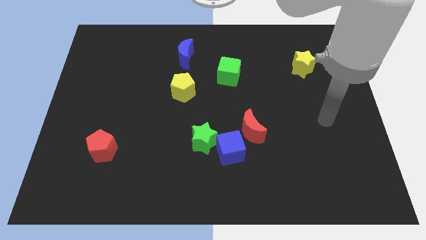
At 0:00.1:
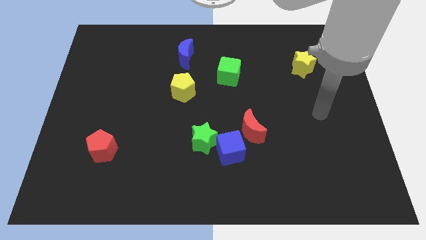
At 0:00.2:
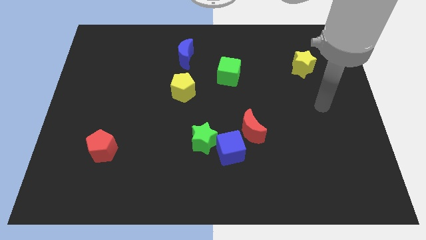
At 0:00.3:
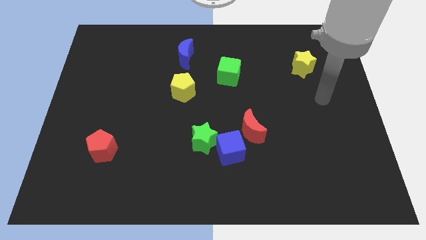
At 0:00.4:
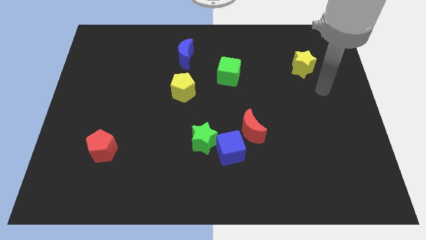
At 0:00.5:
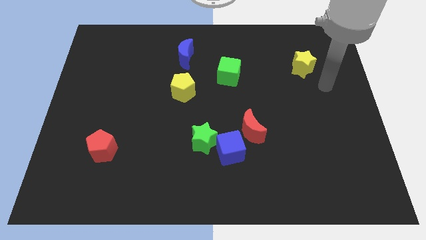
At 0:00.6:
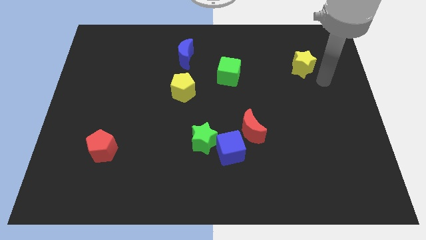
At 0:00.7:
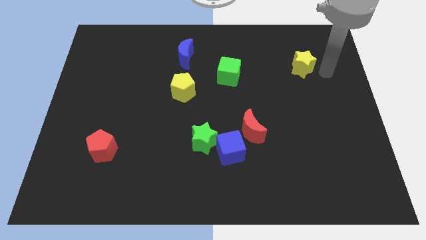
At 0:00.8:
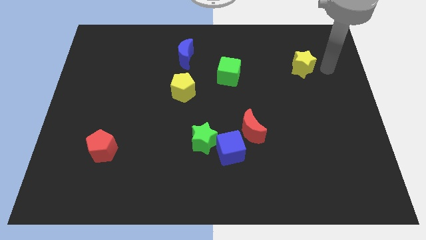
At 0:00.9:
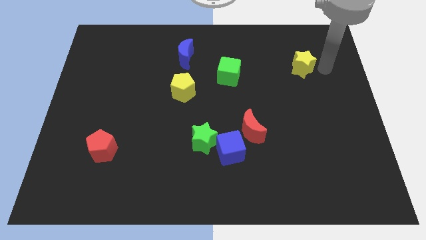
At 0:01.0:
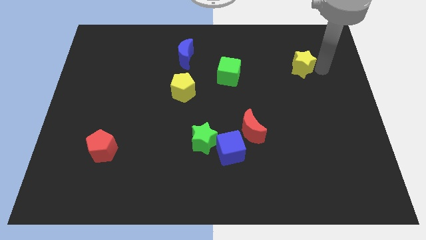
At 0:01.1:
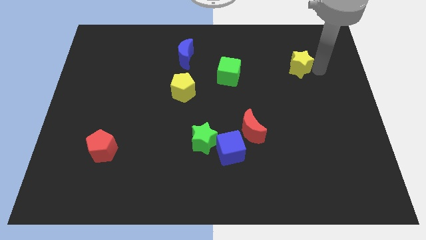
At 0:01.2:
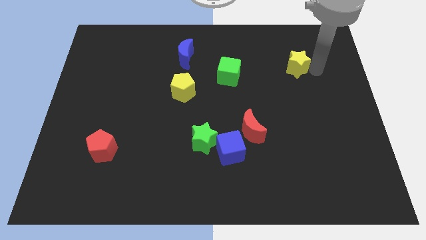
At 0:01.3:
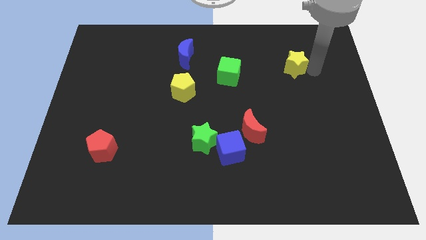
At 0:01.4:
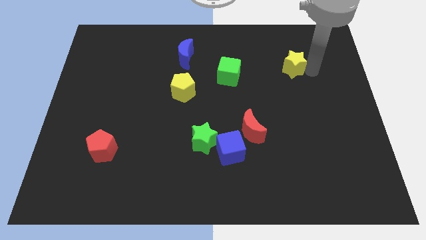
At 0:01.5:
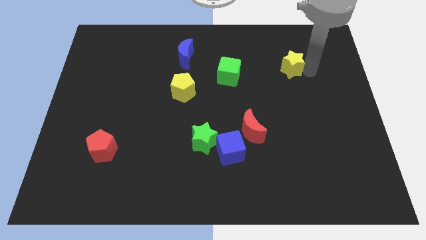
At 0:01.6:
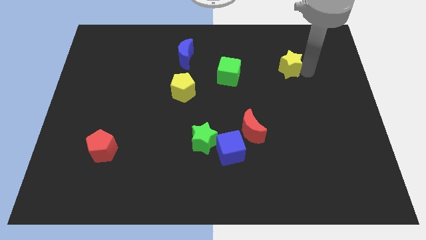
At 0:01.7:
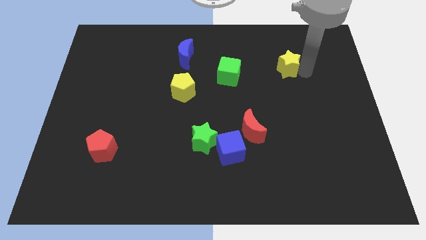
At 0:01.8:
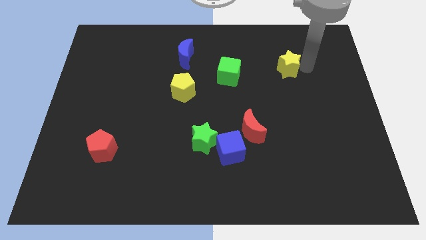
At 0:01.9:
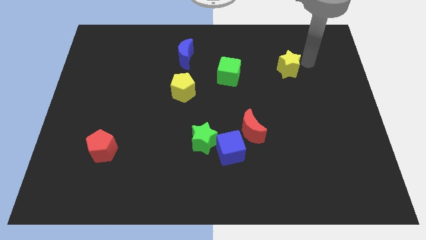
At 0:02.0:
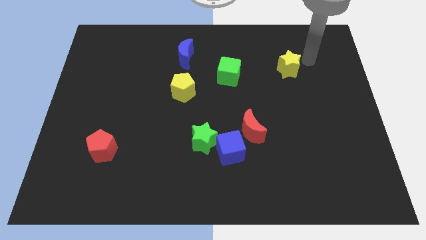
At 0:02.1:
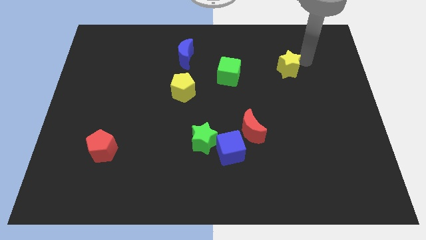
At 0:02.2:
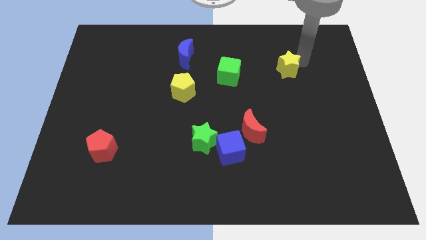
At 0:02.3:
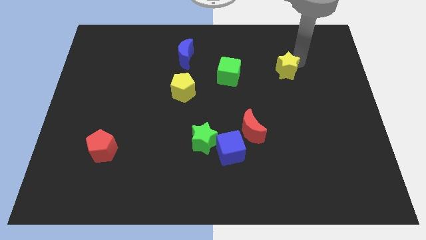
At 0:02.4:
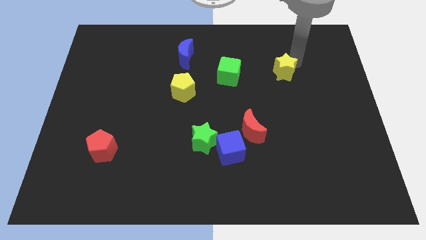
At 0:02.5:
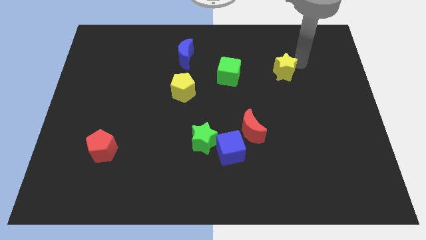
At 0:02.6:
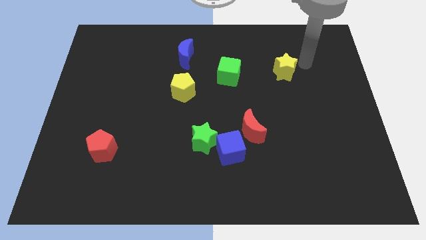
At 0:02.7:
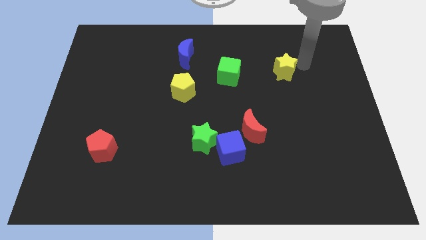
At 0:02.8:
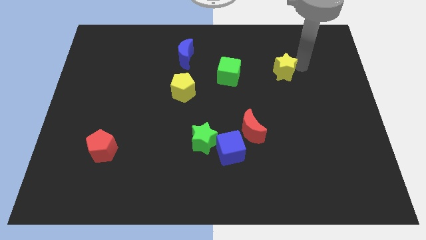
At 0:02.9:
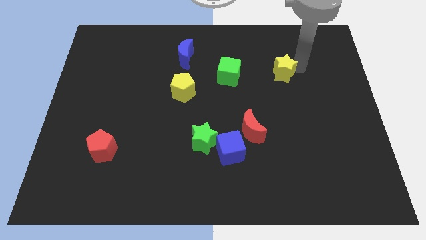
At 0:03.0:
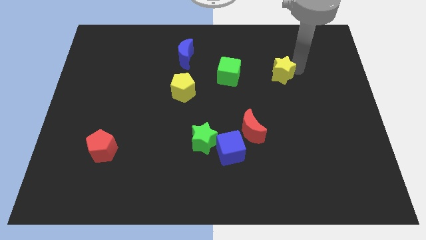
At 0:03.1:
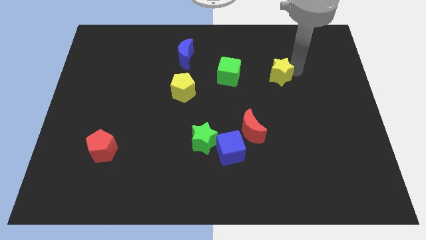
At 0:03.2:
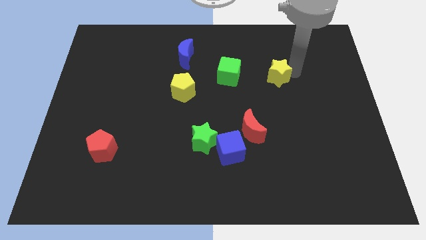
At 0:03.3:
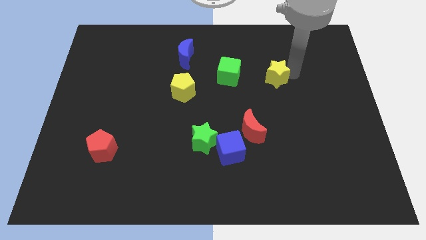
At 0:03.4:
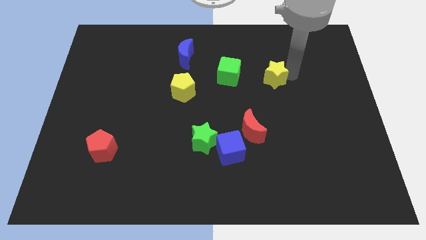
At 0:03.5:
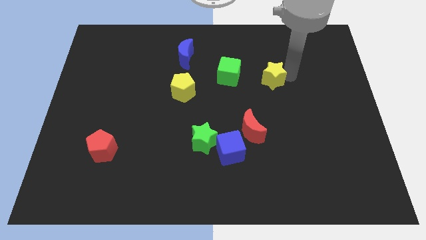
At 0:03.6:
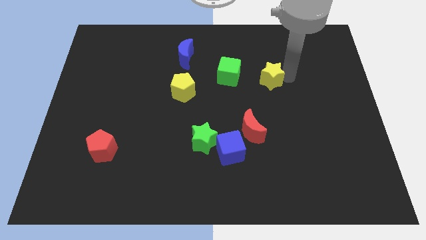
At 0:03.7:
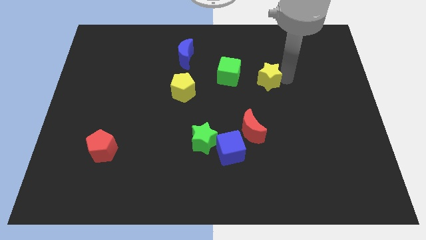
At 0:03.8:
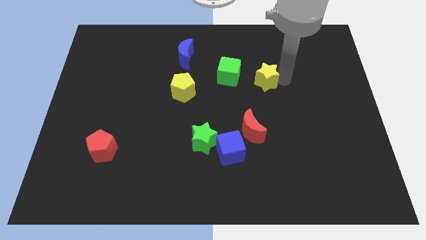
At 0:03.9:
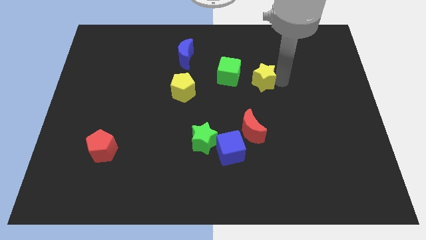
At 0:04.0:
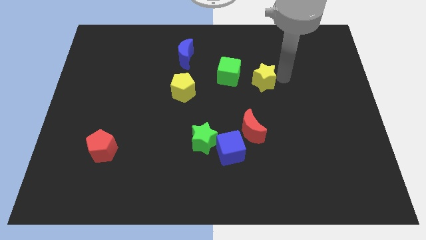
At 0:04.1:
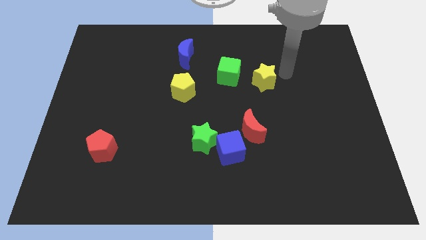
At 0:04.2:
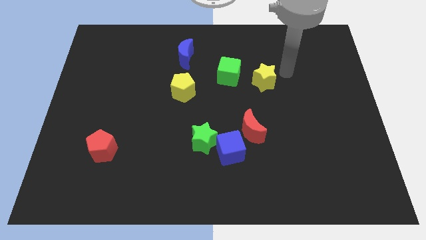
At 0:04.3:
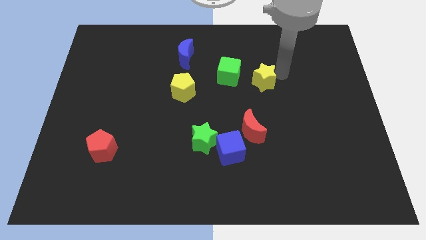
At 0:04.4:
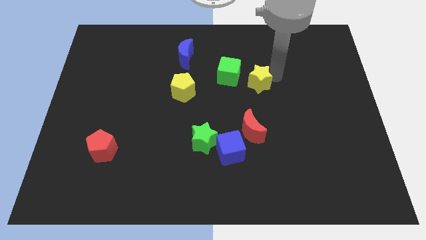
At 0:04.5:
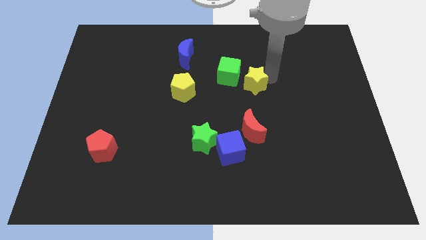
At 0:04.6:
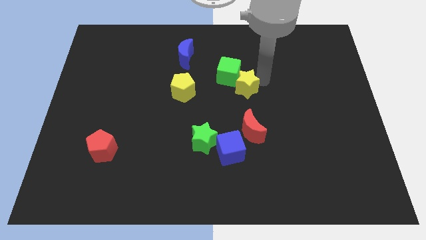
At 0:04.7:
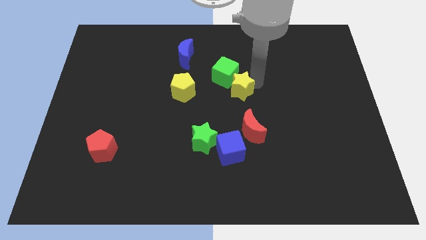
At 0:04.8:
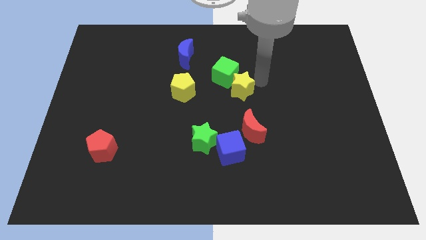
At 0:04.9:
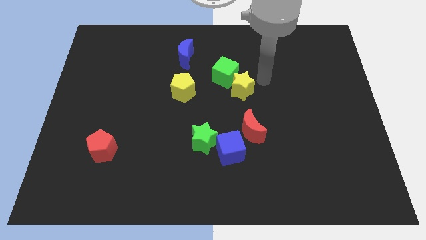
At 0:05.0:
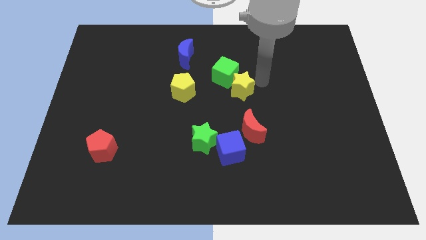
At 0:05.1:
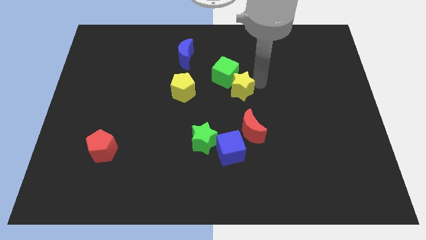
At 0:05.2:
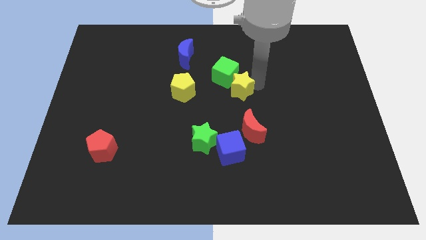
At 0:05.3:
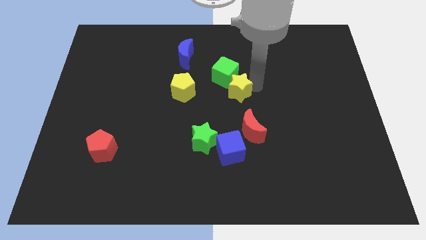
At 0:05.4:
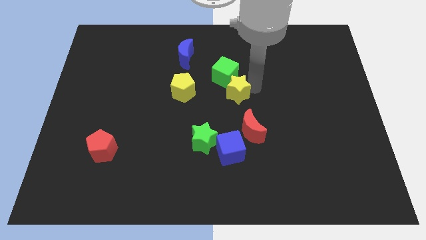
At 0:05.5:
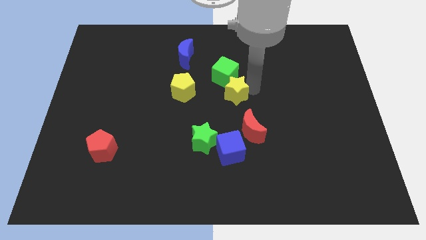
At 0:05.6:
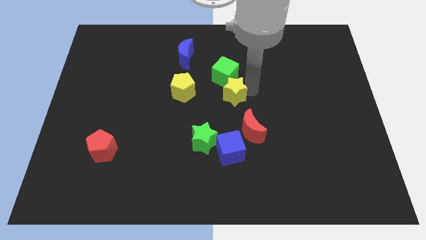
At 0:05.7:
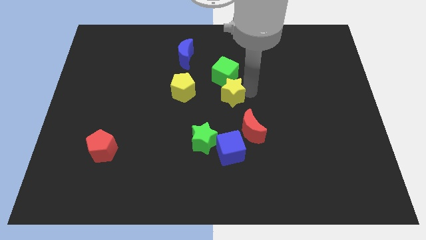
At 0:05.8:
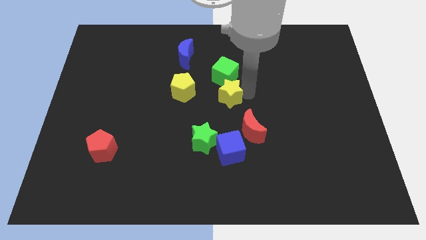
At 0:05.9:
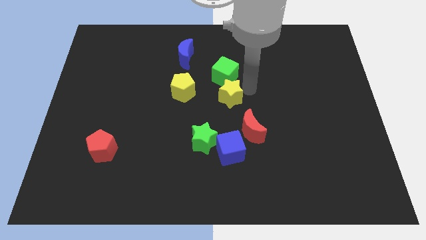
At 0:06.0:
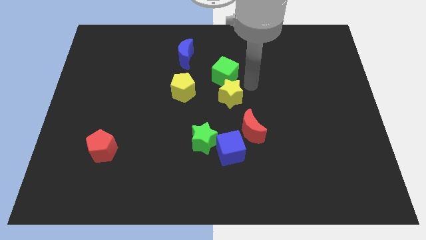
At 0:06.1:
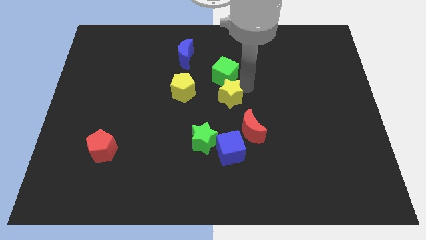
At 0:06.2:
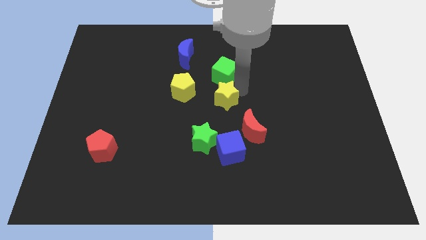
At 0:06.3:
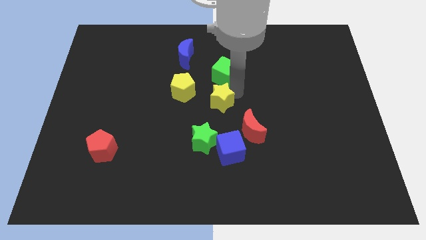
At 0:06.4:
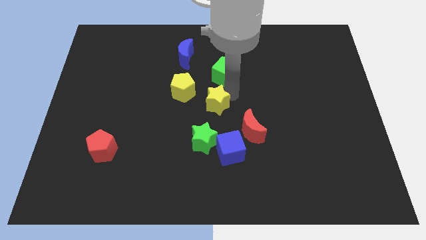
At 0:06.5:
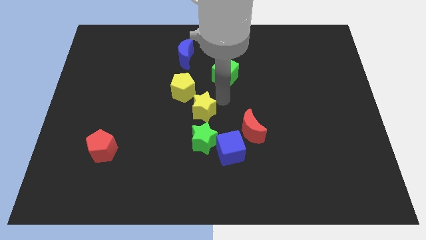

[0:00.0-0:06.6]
put the yellow star below the yellow pentagon
